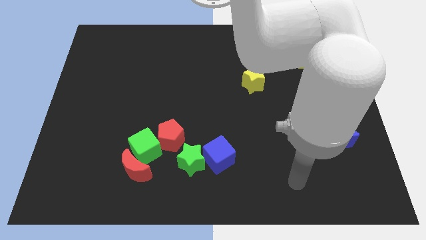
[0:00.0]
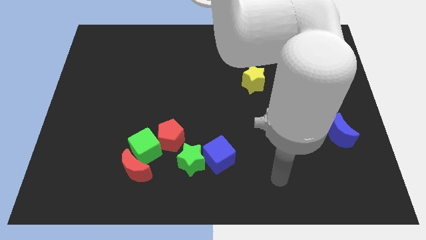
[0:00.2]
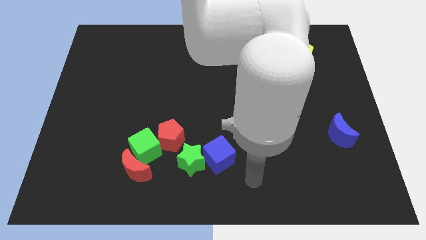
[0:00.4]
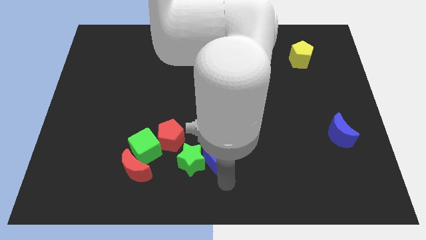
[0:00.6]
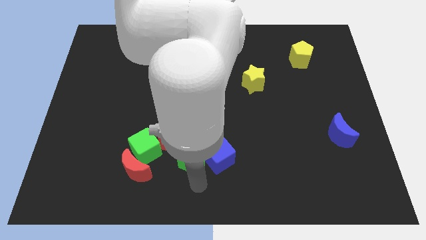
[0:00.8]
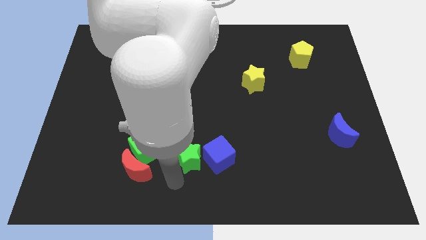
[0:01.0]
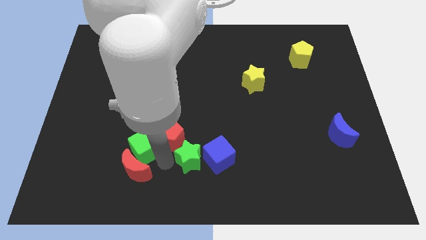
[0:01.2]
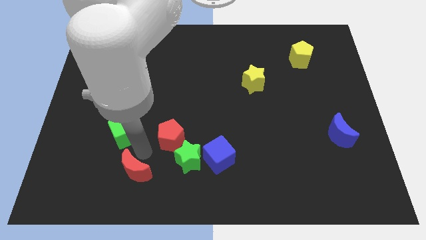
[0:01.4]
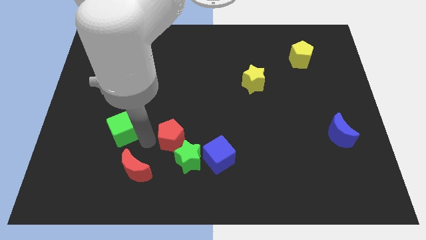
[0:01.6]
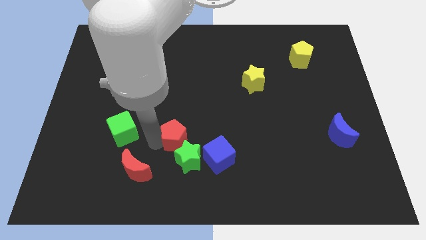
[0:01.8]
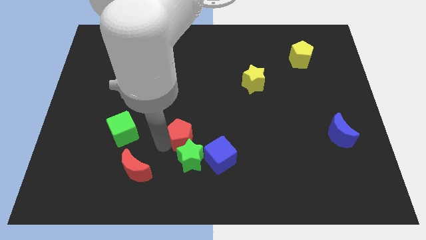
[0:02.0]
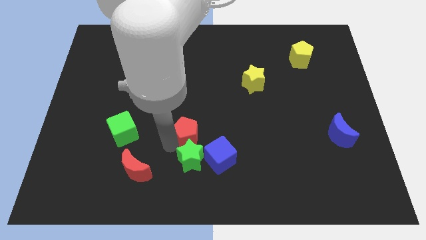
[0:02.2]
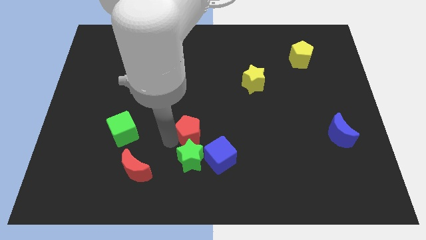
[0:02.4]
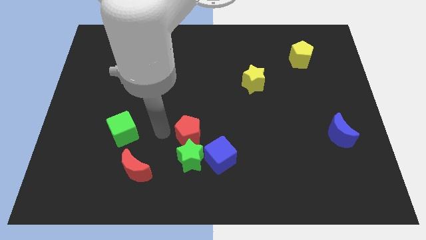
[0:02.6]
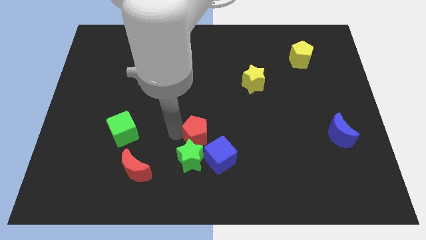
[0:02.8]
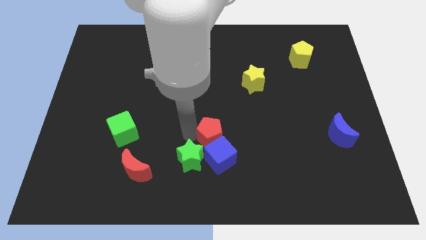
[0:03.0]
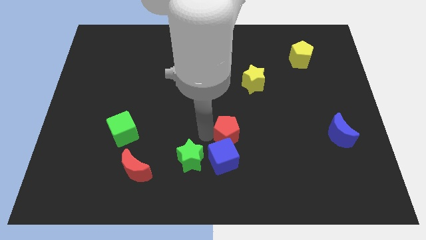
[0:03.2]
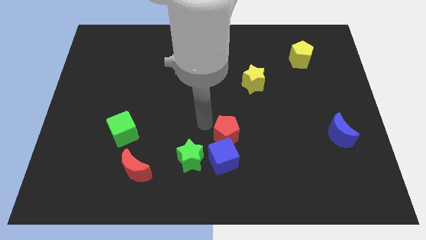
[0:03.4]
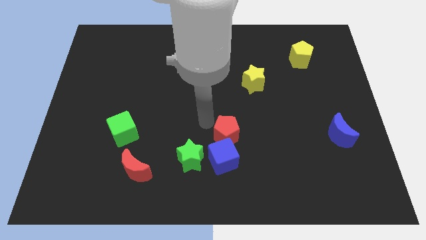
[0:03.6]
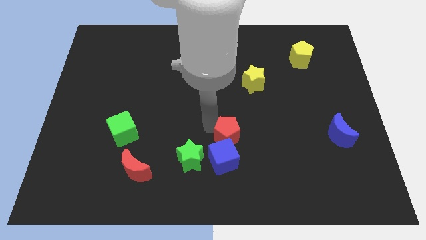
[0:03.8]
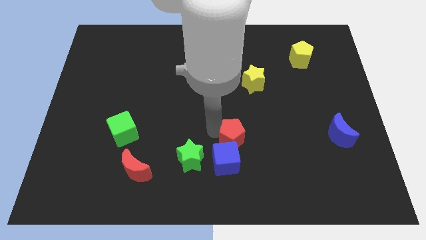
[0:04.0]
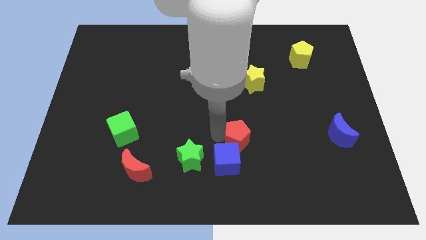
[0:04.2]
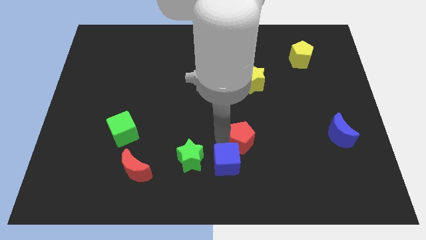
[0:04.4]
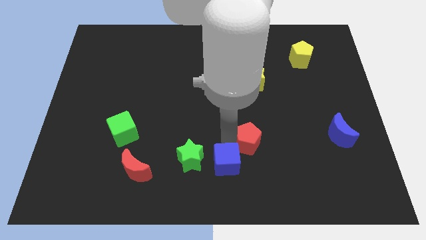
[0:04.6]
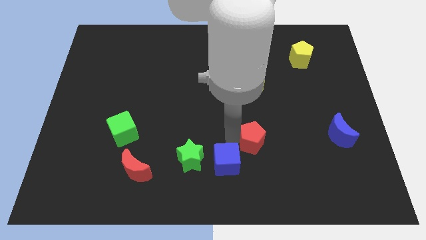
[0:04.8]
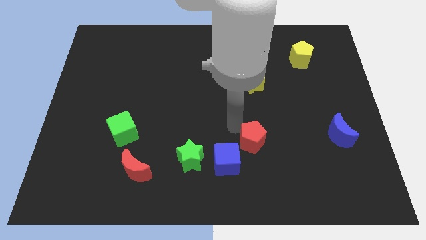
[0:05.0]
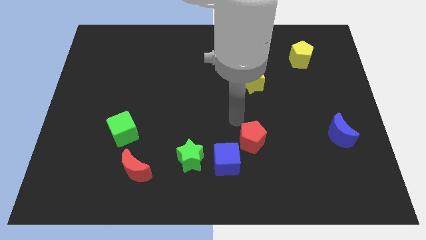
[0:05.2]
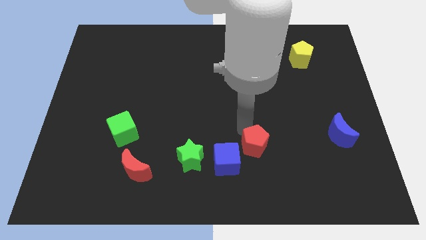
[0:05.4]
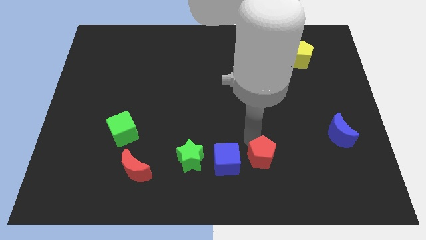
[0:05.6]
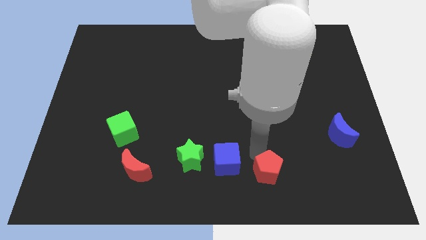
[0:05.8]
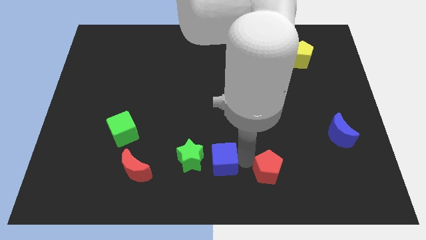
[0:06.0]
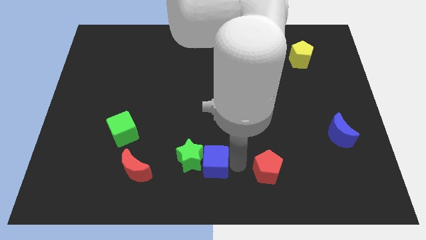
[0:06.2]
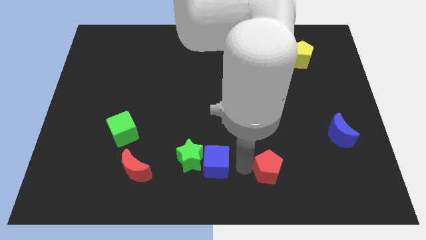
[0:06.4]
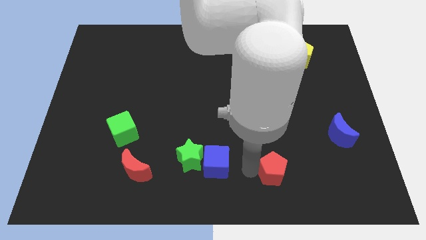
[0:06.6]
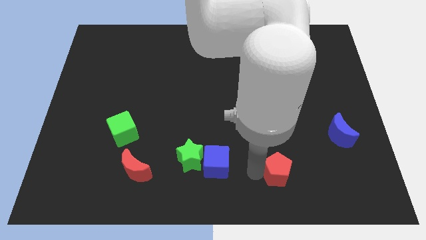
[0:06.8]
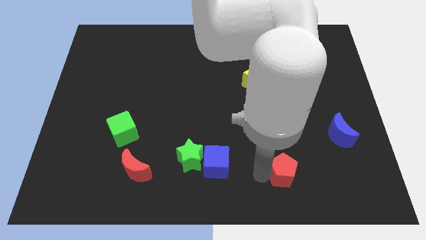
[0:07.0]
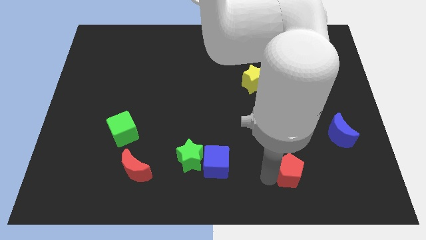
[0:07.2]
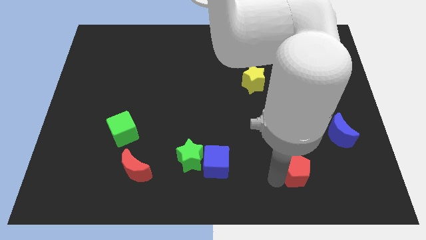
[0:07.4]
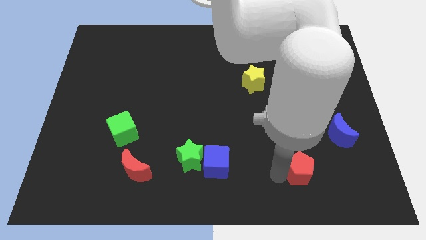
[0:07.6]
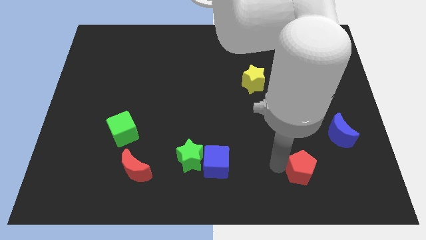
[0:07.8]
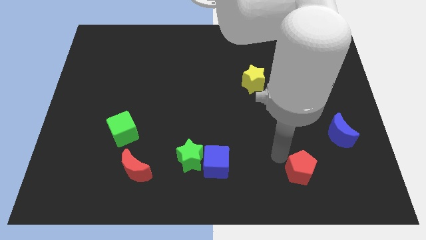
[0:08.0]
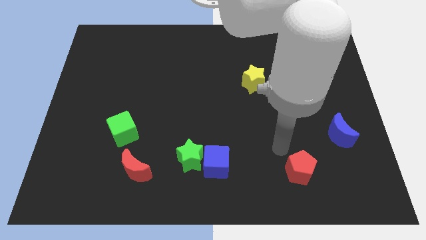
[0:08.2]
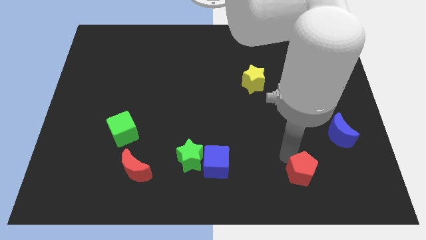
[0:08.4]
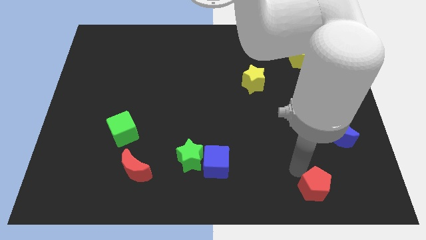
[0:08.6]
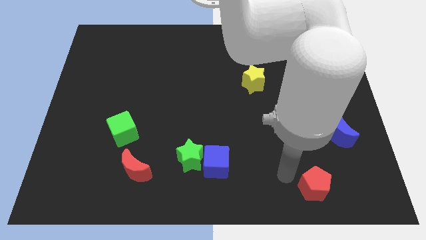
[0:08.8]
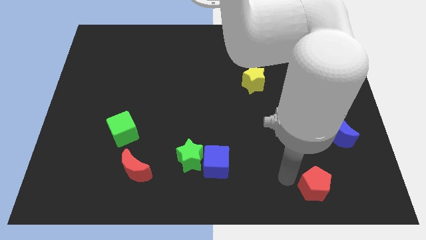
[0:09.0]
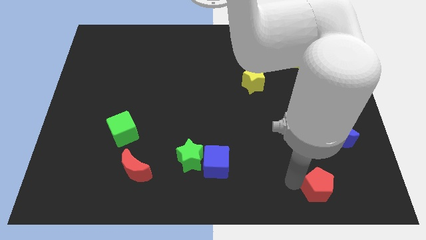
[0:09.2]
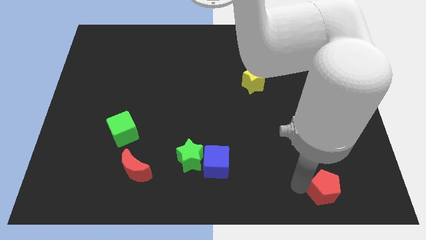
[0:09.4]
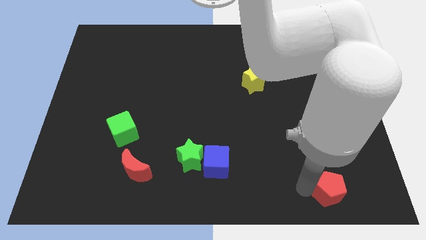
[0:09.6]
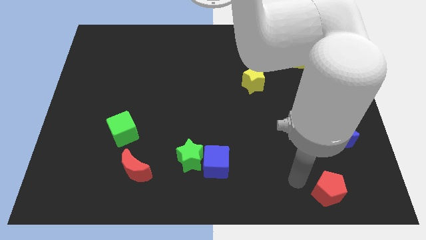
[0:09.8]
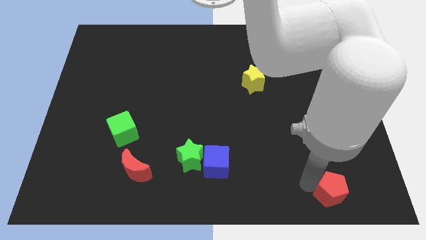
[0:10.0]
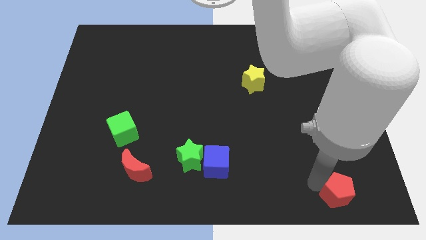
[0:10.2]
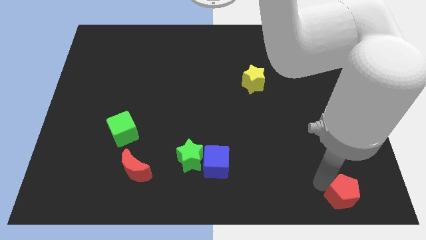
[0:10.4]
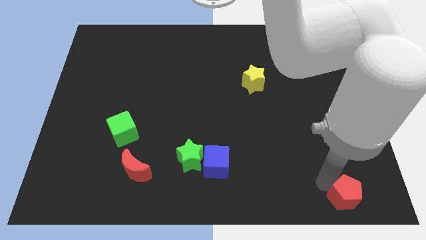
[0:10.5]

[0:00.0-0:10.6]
move the red pentagon to the bottom right of the board

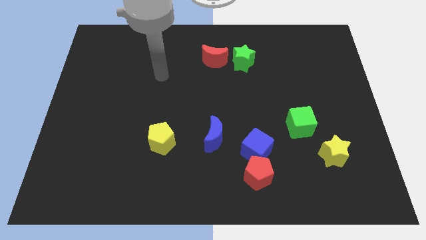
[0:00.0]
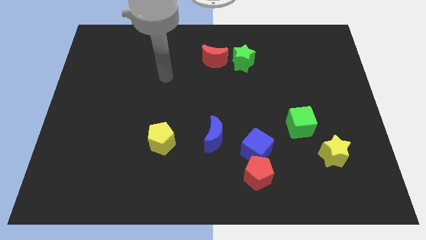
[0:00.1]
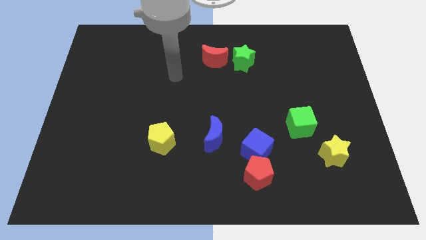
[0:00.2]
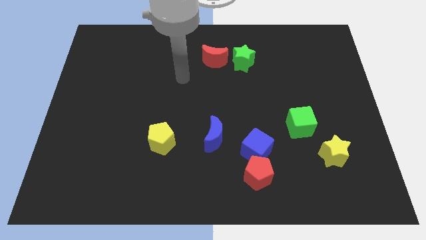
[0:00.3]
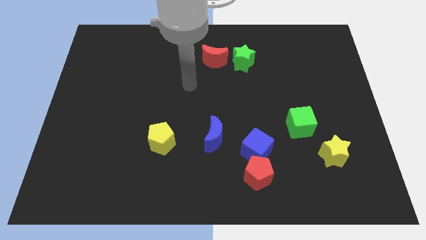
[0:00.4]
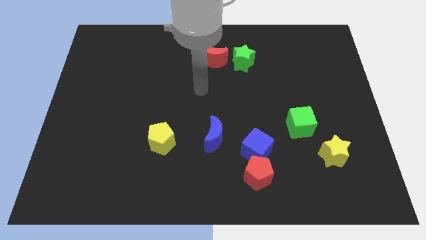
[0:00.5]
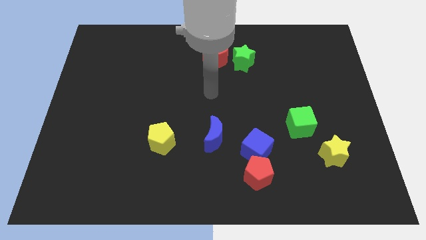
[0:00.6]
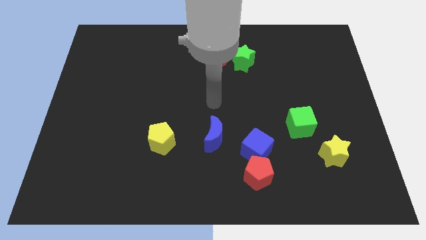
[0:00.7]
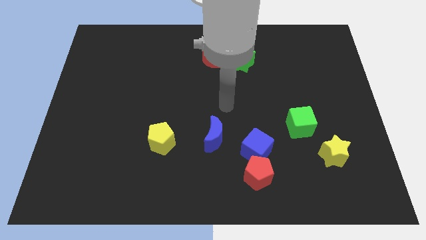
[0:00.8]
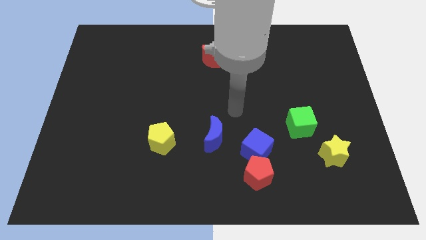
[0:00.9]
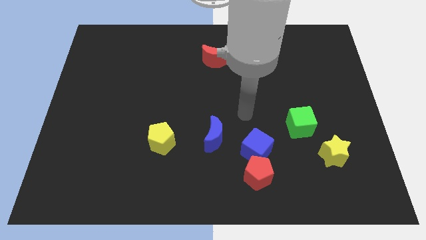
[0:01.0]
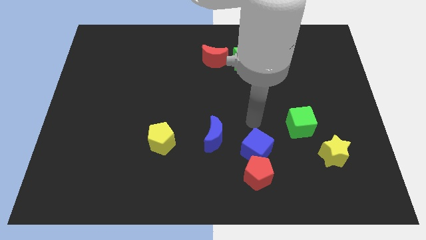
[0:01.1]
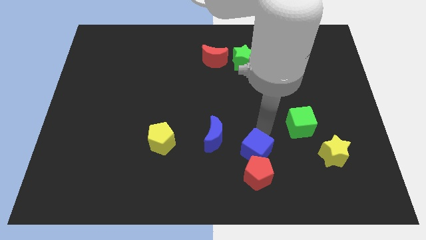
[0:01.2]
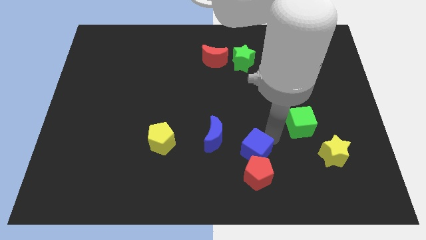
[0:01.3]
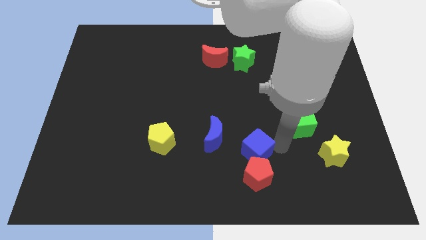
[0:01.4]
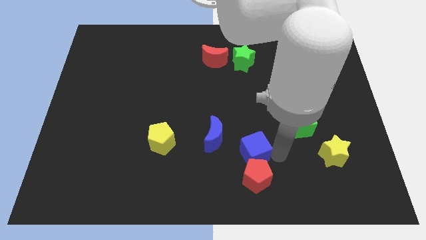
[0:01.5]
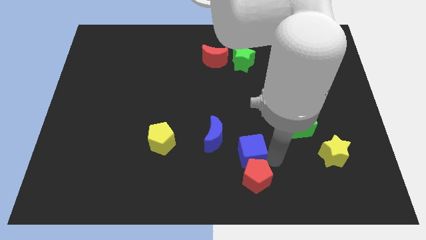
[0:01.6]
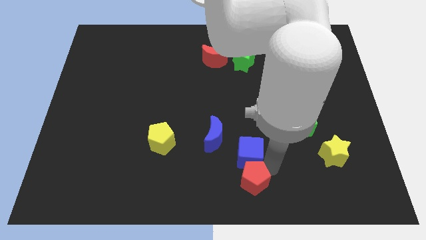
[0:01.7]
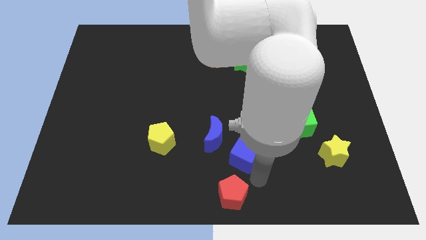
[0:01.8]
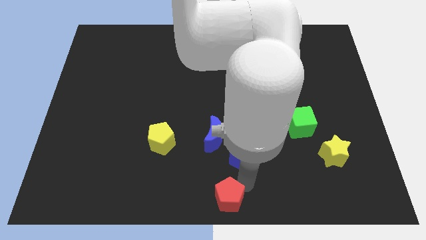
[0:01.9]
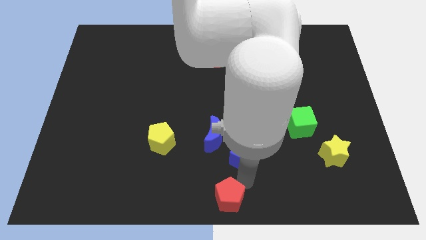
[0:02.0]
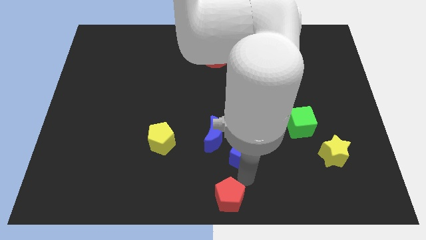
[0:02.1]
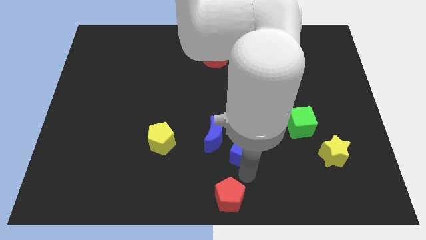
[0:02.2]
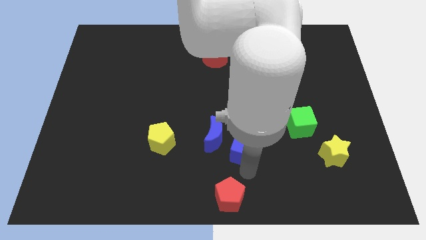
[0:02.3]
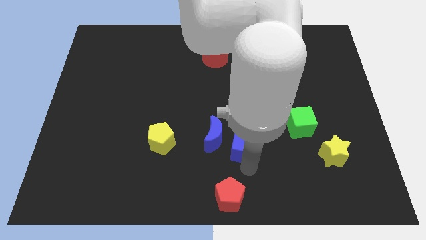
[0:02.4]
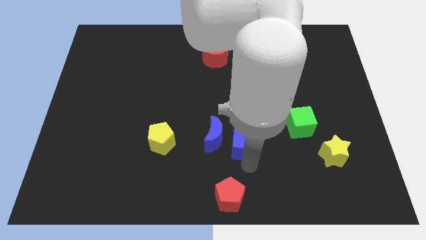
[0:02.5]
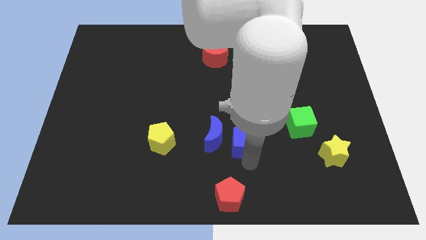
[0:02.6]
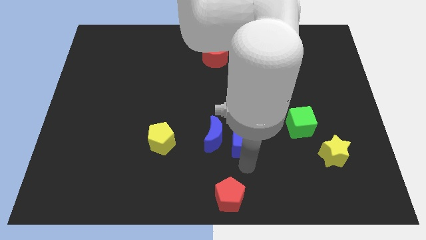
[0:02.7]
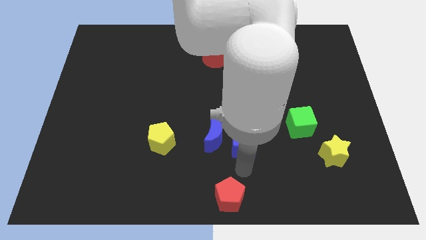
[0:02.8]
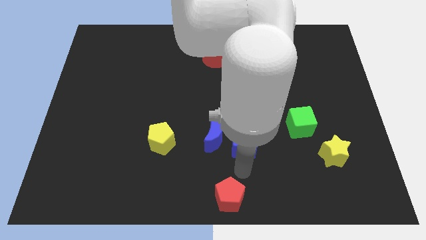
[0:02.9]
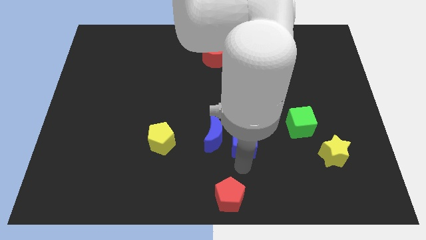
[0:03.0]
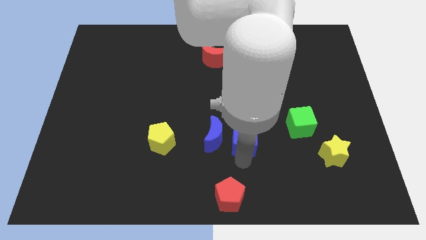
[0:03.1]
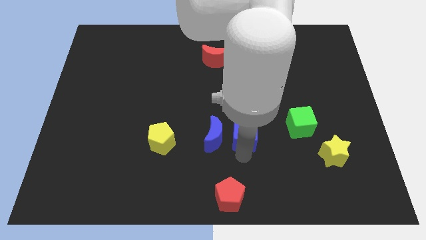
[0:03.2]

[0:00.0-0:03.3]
slide the blue cube to the middle of the board
